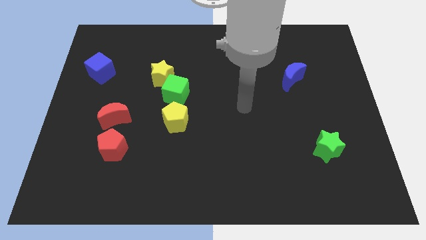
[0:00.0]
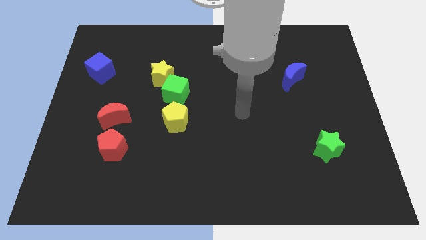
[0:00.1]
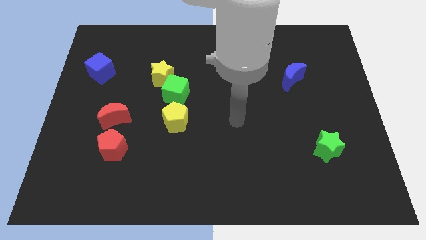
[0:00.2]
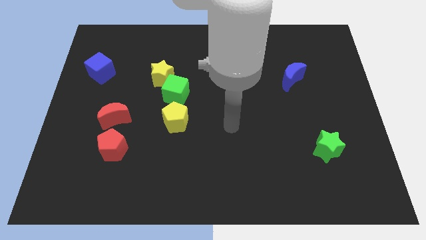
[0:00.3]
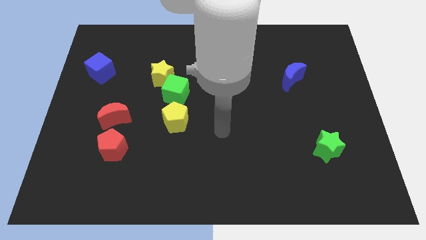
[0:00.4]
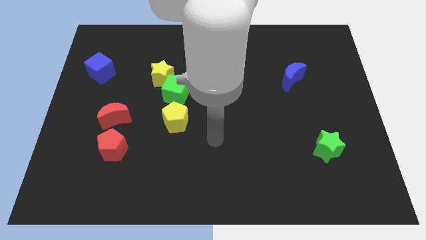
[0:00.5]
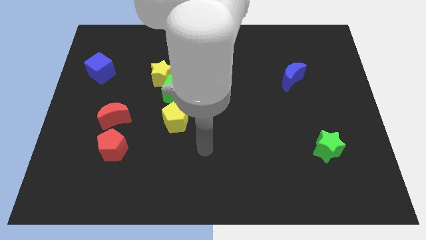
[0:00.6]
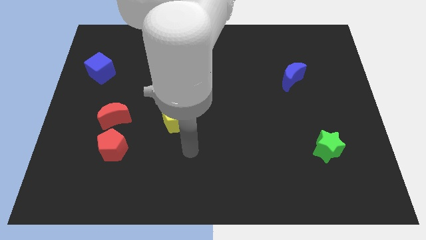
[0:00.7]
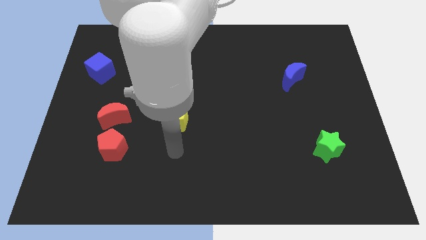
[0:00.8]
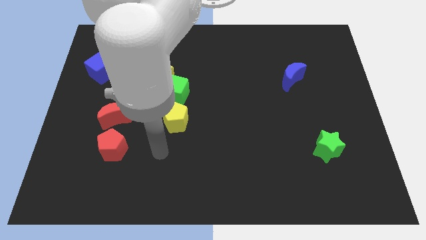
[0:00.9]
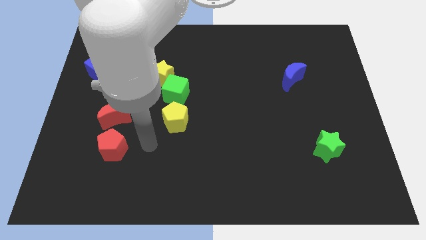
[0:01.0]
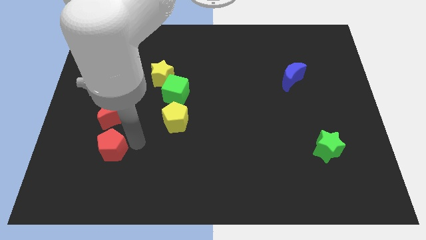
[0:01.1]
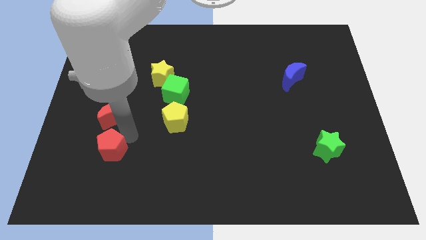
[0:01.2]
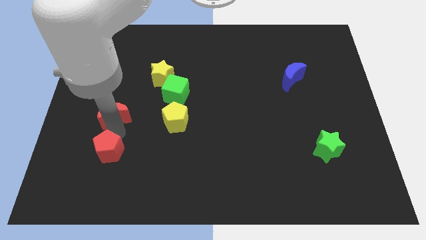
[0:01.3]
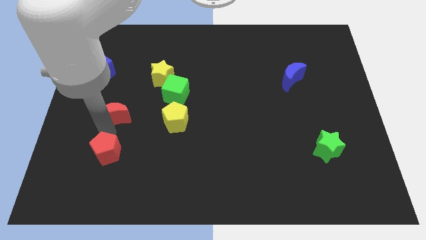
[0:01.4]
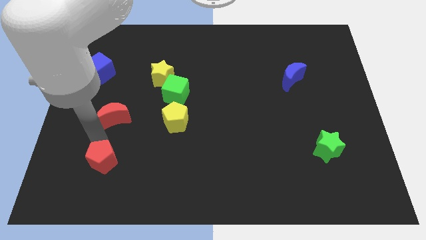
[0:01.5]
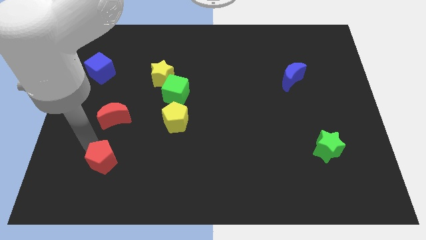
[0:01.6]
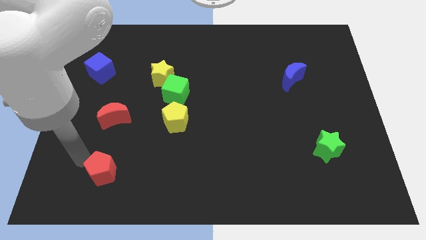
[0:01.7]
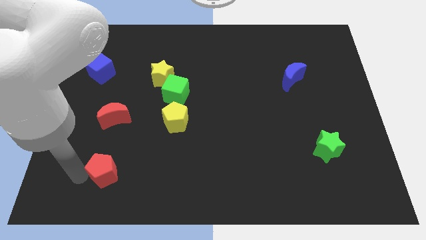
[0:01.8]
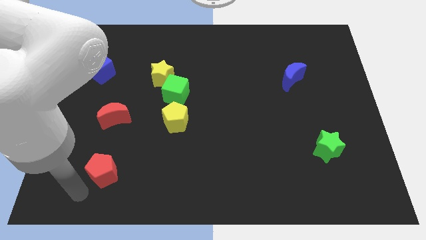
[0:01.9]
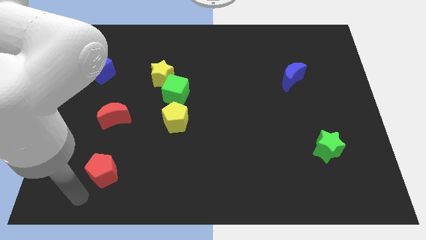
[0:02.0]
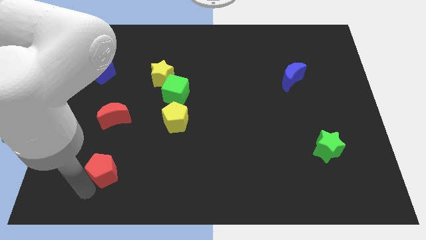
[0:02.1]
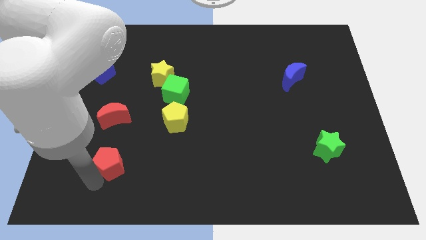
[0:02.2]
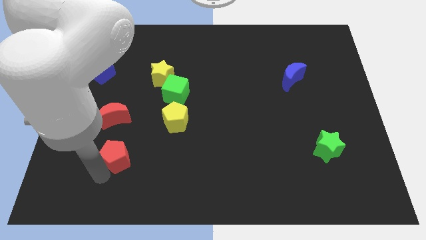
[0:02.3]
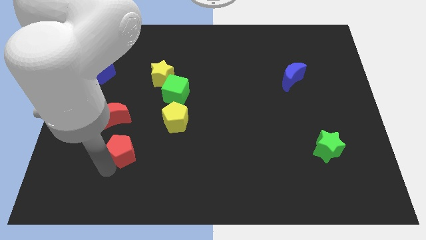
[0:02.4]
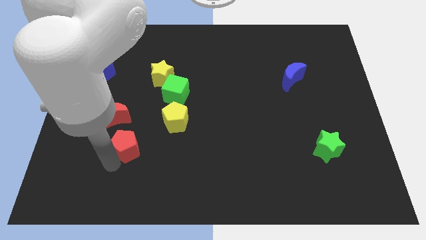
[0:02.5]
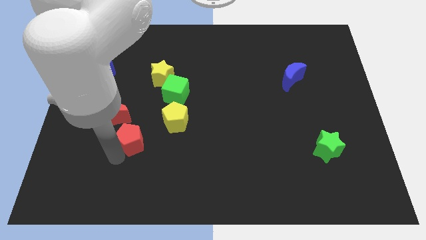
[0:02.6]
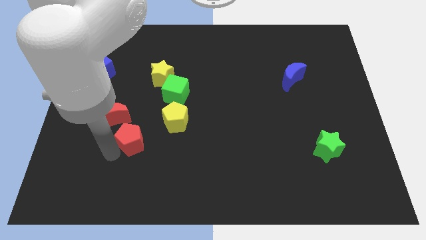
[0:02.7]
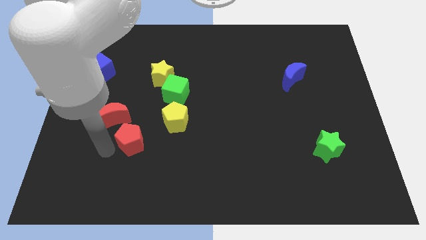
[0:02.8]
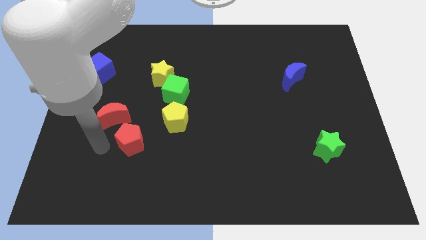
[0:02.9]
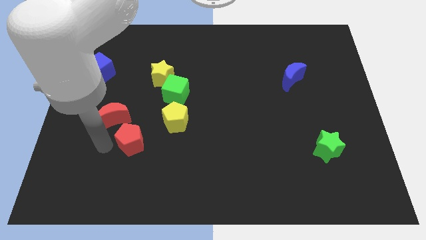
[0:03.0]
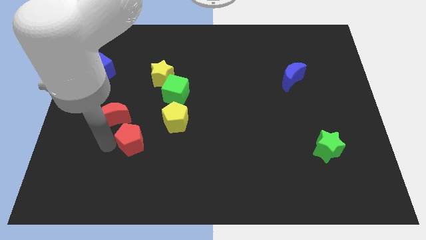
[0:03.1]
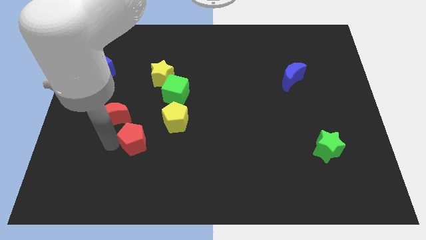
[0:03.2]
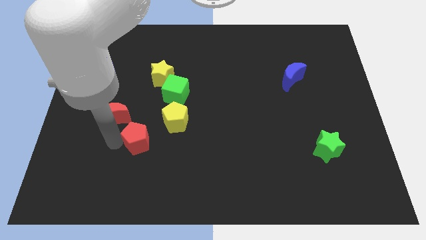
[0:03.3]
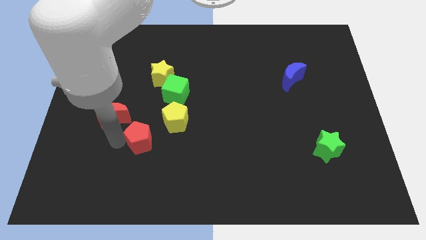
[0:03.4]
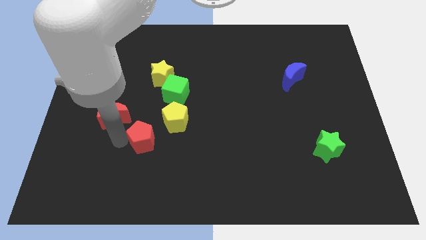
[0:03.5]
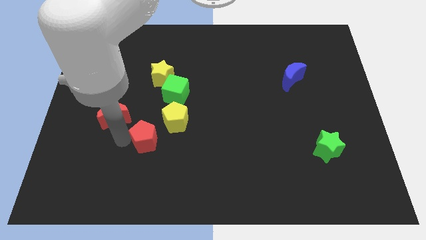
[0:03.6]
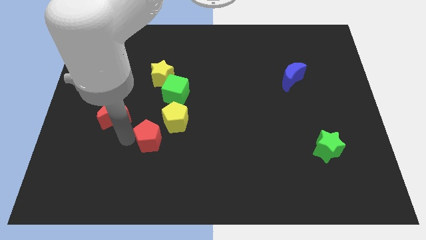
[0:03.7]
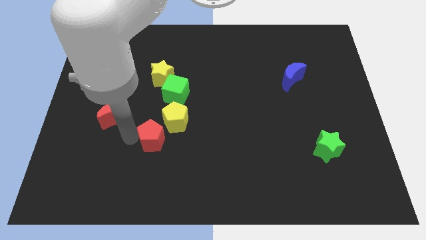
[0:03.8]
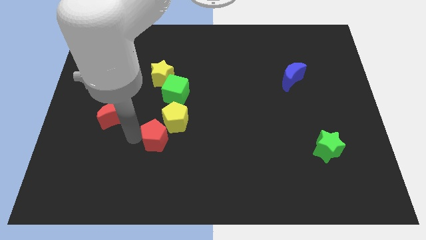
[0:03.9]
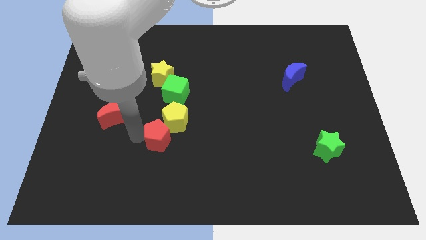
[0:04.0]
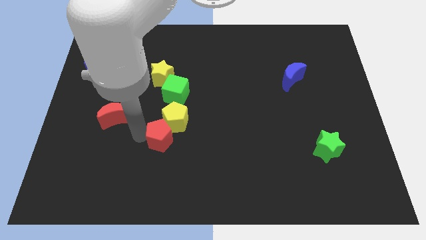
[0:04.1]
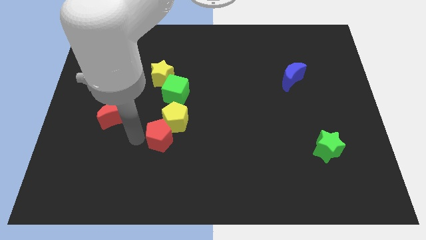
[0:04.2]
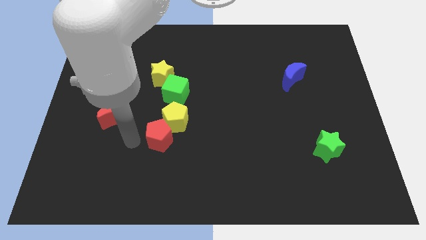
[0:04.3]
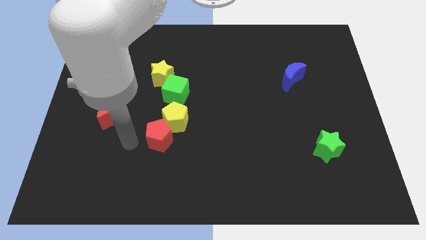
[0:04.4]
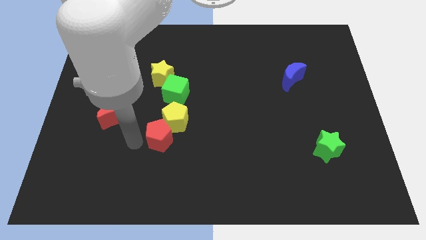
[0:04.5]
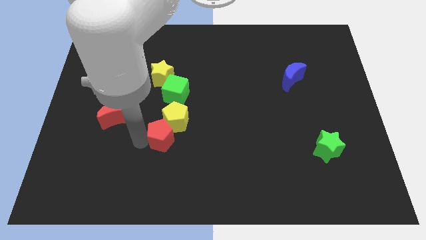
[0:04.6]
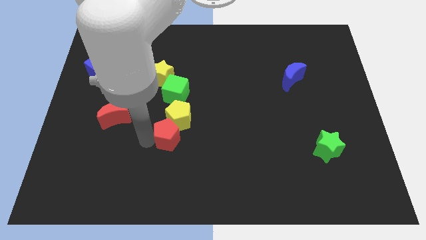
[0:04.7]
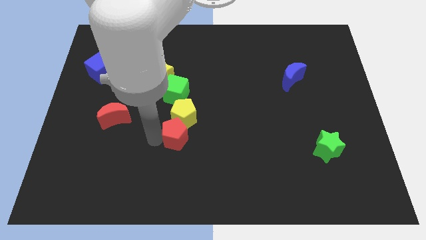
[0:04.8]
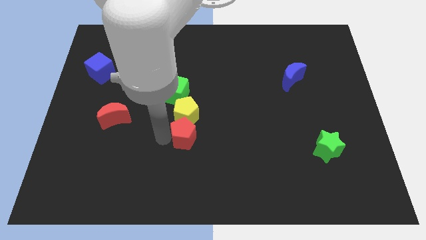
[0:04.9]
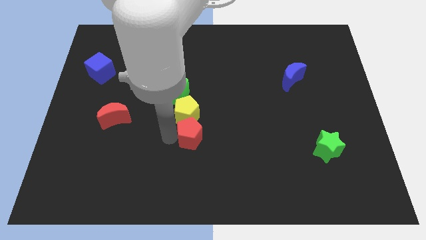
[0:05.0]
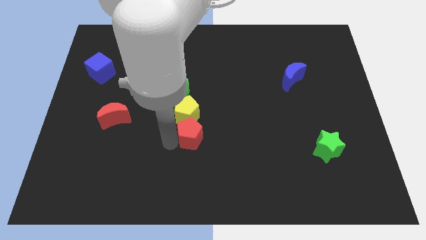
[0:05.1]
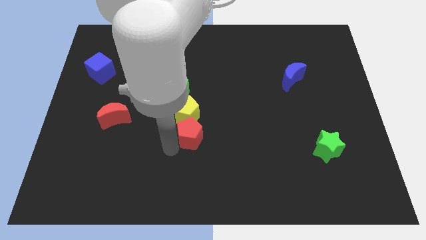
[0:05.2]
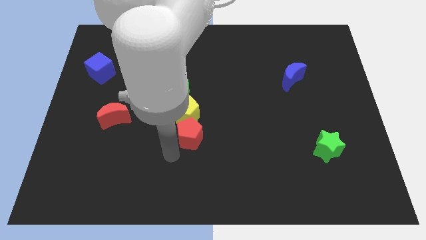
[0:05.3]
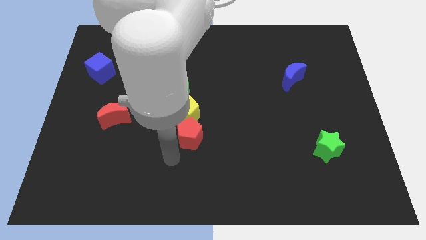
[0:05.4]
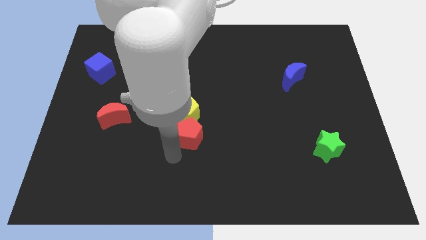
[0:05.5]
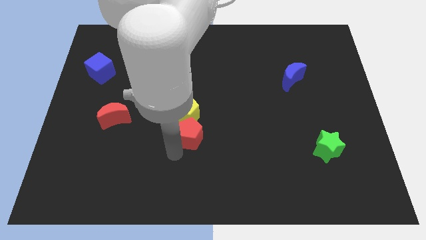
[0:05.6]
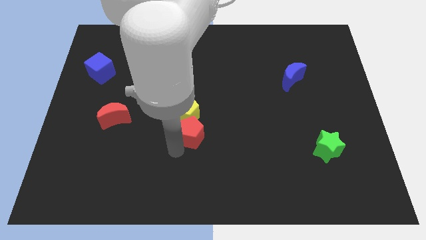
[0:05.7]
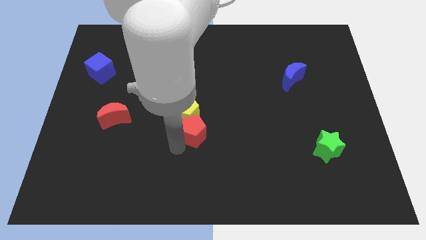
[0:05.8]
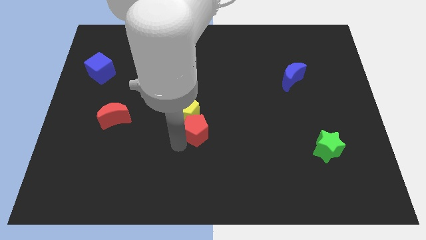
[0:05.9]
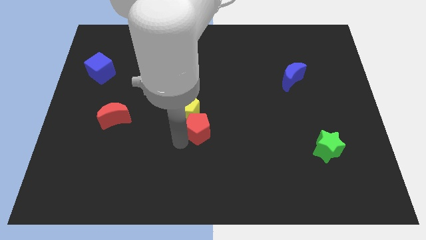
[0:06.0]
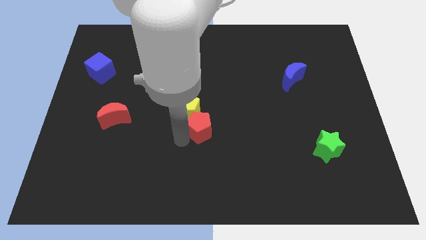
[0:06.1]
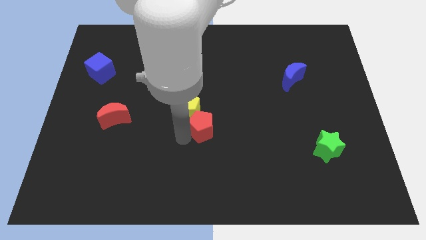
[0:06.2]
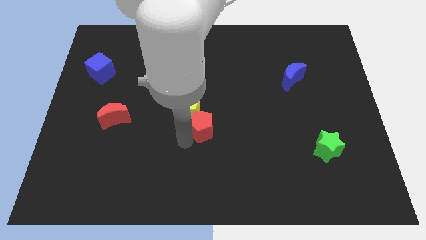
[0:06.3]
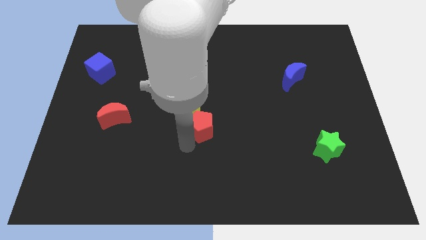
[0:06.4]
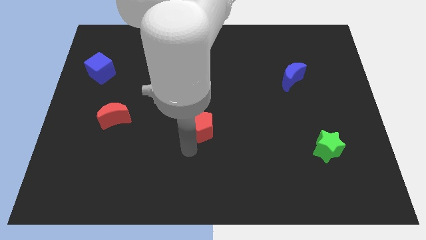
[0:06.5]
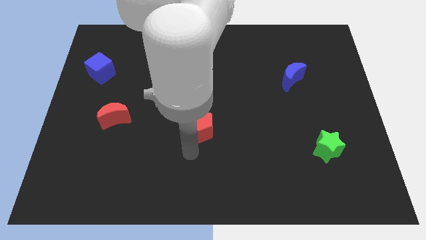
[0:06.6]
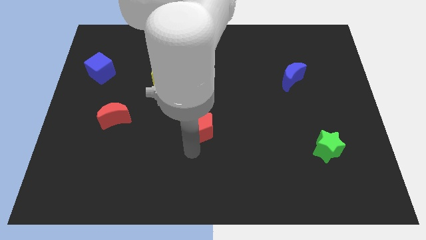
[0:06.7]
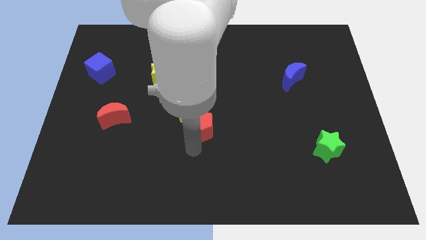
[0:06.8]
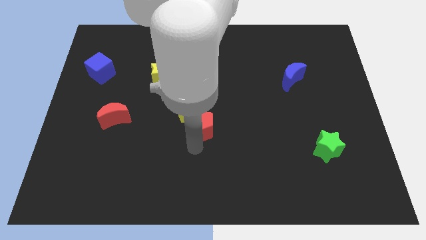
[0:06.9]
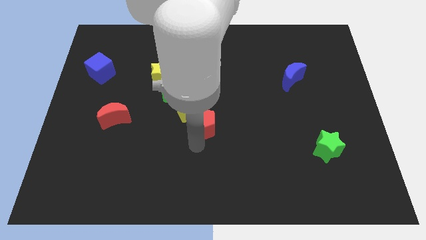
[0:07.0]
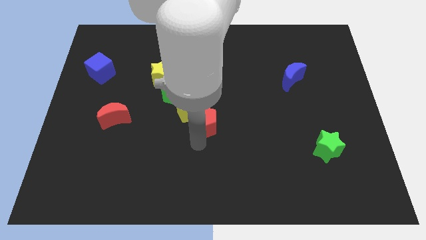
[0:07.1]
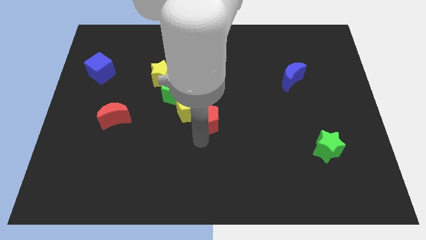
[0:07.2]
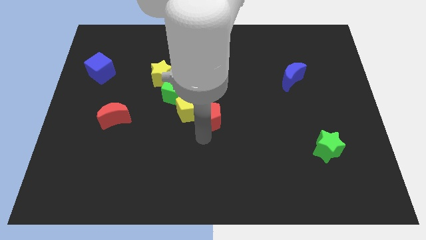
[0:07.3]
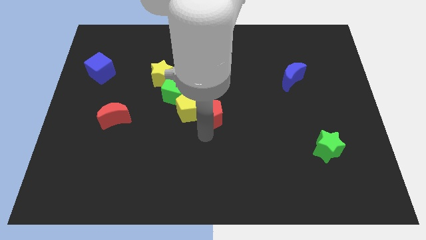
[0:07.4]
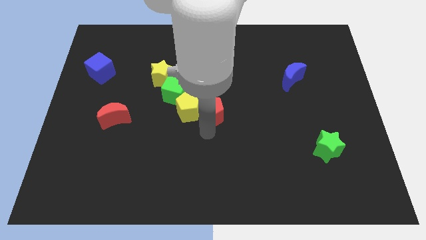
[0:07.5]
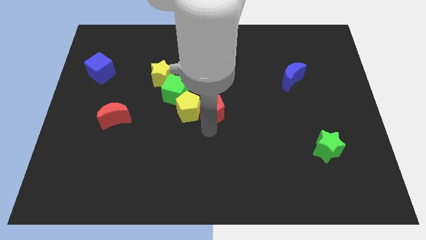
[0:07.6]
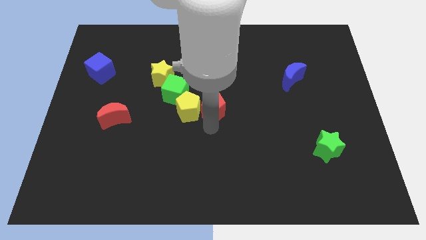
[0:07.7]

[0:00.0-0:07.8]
move the red pentagon up and then to the right
